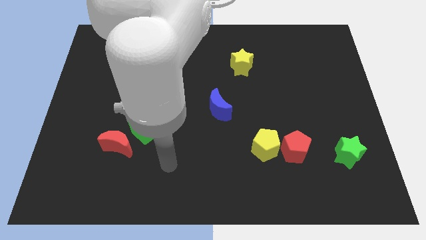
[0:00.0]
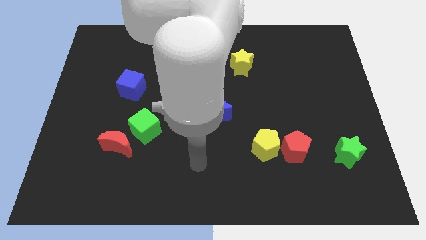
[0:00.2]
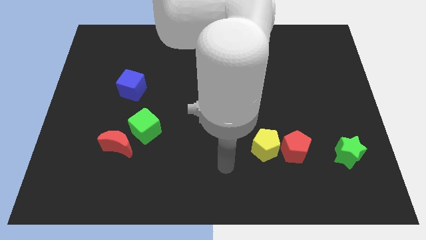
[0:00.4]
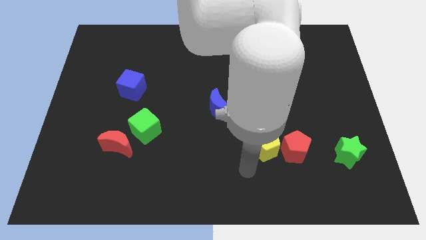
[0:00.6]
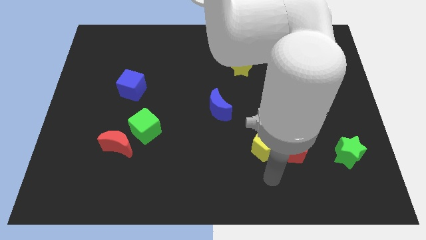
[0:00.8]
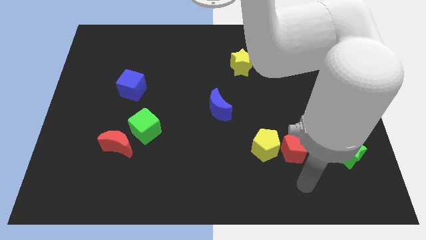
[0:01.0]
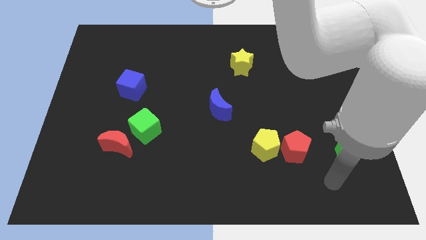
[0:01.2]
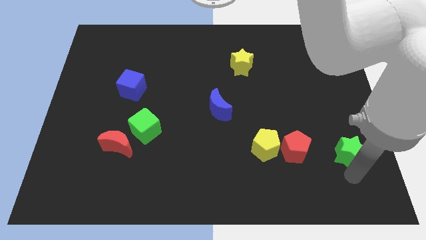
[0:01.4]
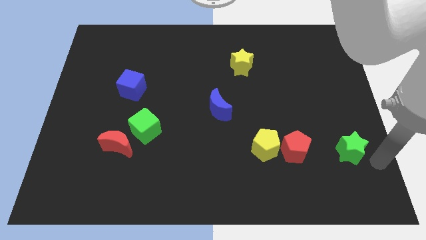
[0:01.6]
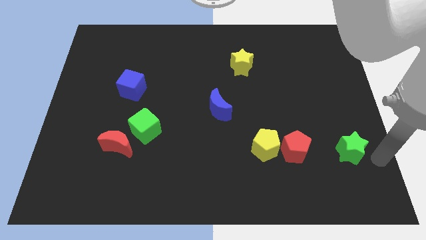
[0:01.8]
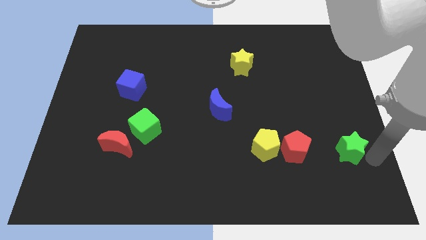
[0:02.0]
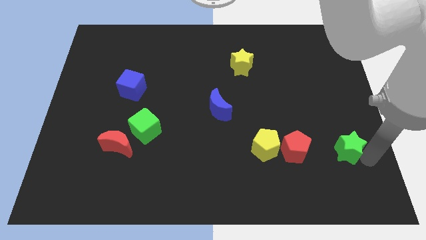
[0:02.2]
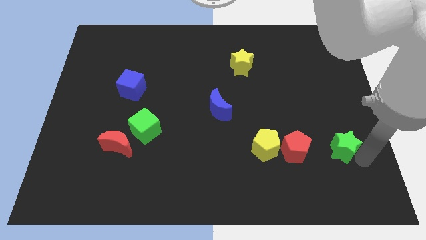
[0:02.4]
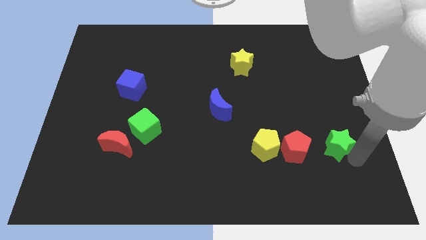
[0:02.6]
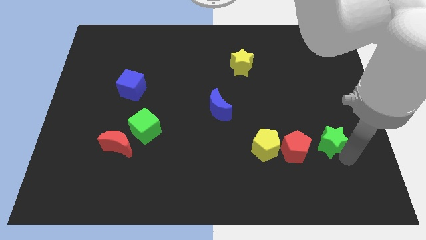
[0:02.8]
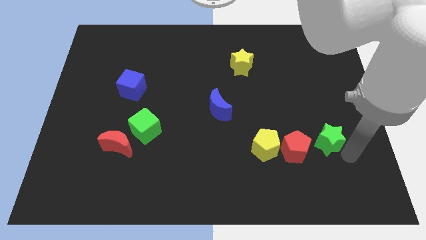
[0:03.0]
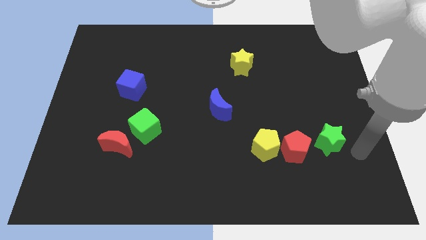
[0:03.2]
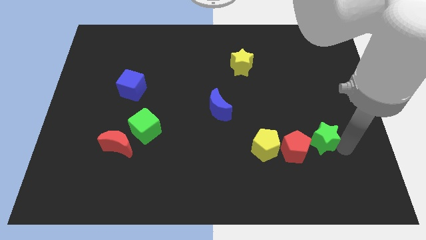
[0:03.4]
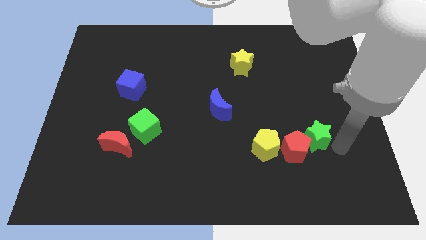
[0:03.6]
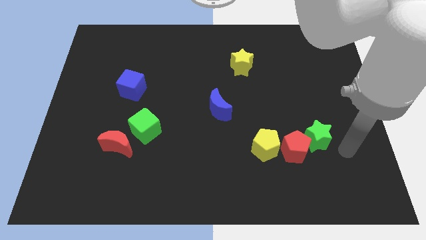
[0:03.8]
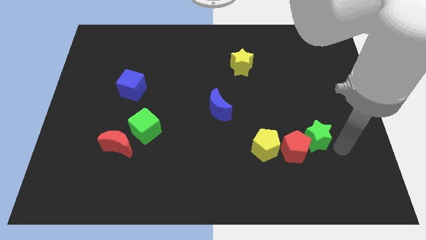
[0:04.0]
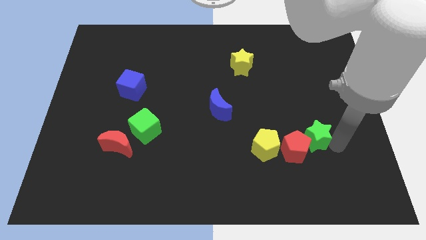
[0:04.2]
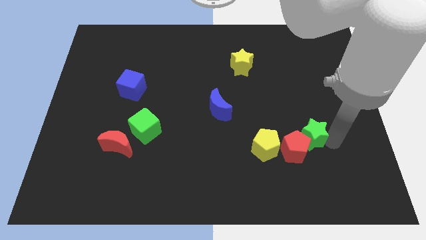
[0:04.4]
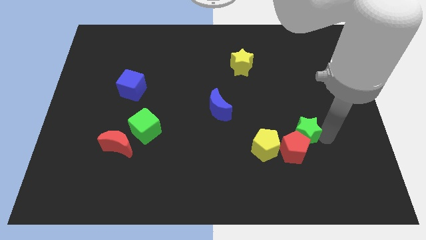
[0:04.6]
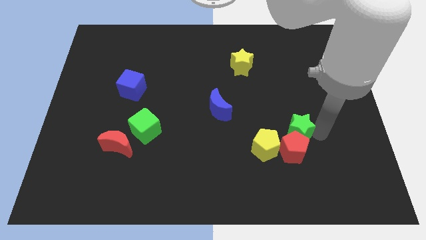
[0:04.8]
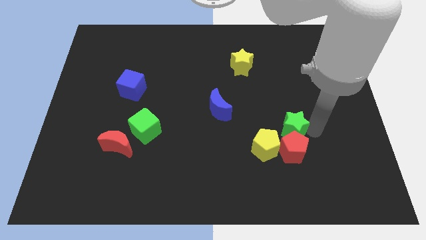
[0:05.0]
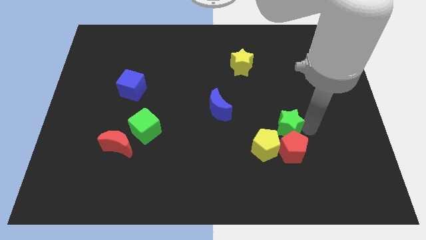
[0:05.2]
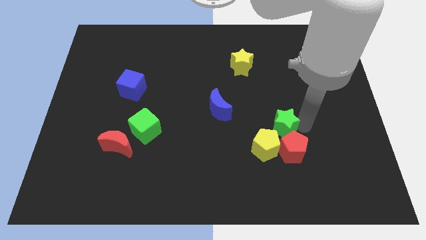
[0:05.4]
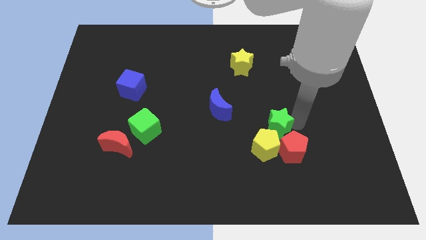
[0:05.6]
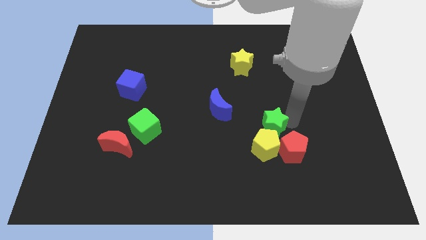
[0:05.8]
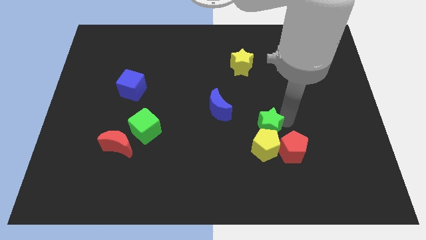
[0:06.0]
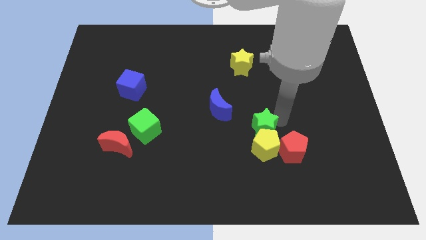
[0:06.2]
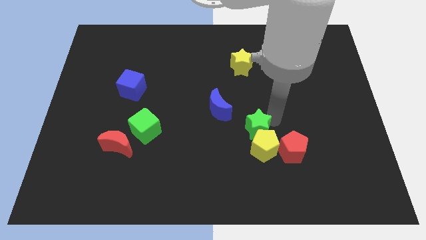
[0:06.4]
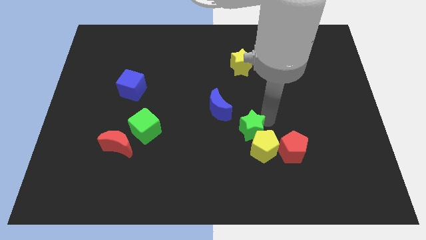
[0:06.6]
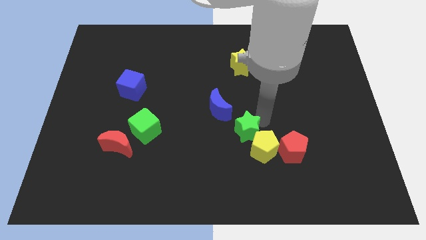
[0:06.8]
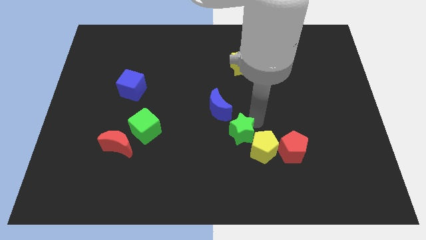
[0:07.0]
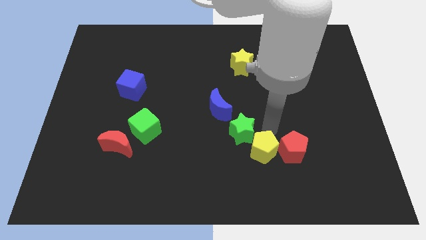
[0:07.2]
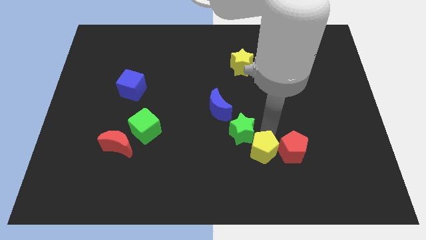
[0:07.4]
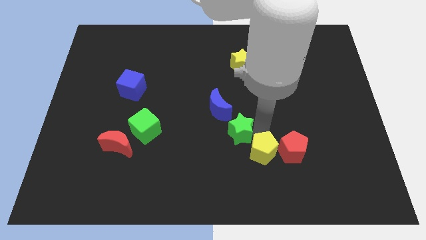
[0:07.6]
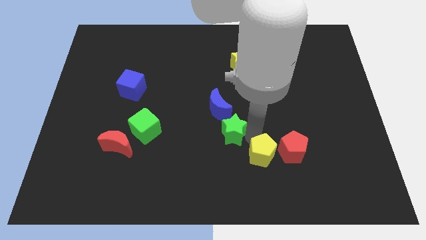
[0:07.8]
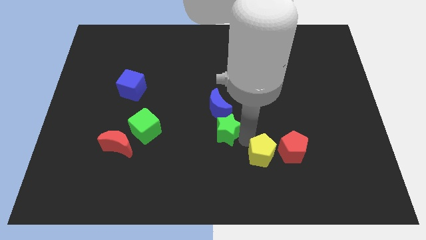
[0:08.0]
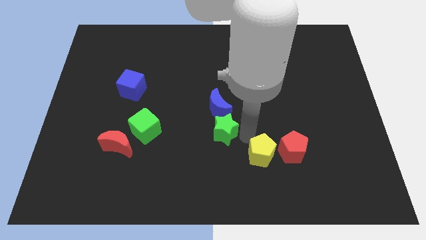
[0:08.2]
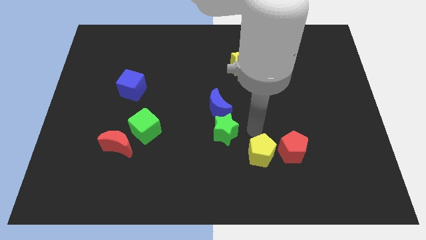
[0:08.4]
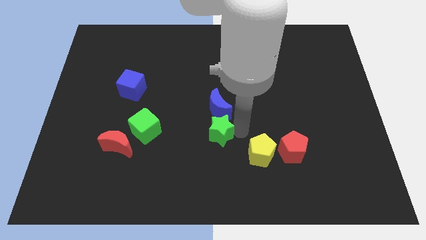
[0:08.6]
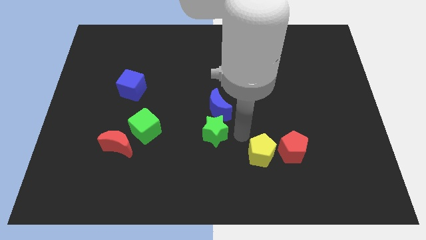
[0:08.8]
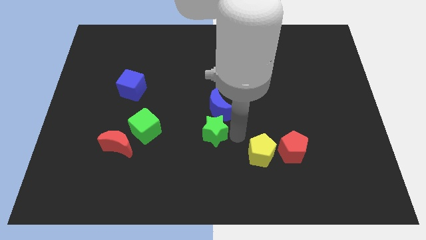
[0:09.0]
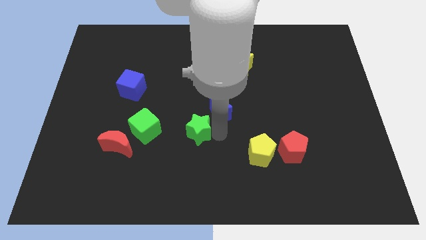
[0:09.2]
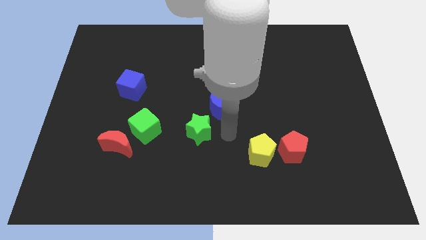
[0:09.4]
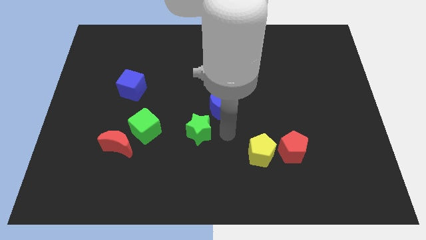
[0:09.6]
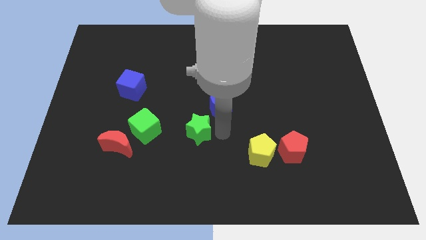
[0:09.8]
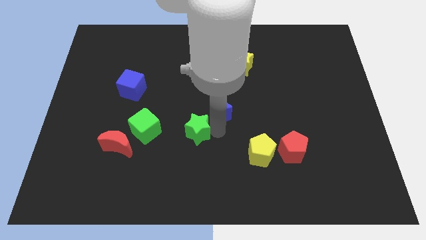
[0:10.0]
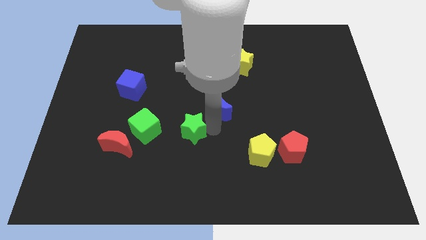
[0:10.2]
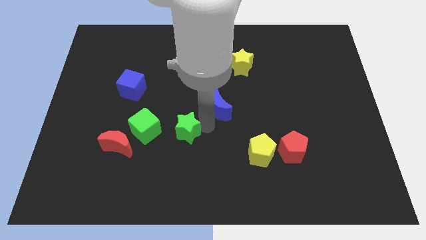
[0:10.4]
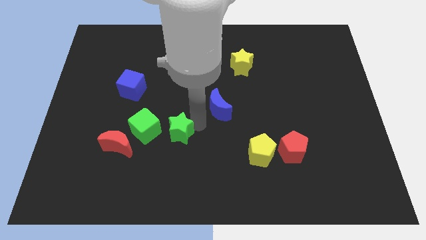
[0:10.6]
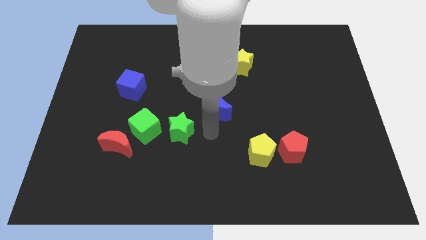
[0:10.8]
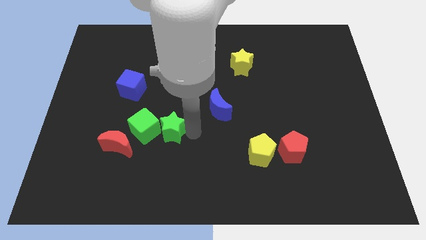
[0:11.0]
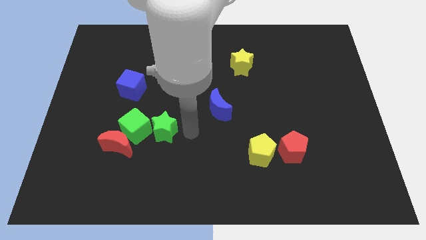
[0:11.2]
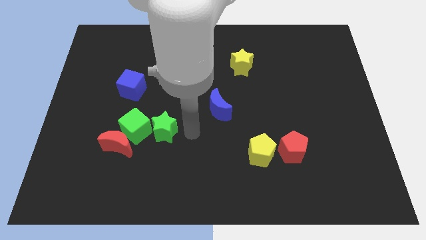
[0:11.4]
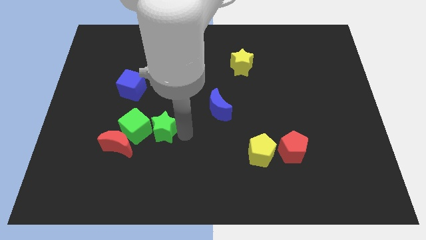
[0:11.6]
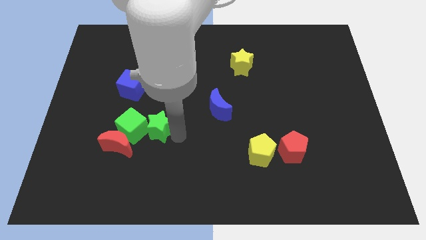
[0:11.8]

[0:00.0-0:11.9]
put the green star to the green cube
